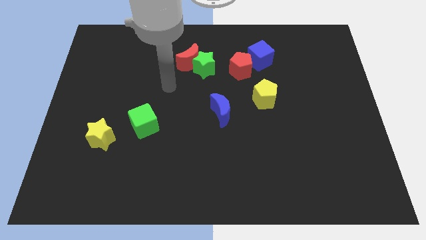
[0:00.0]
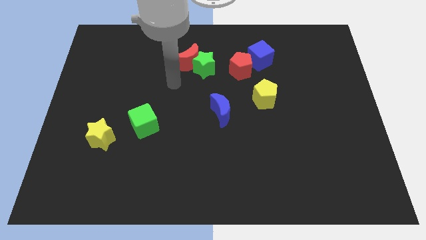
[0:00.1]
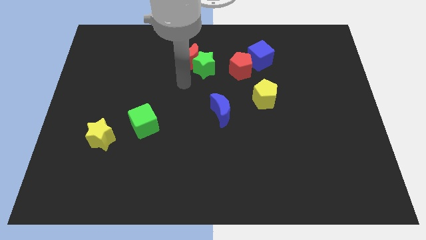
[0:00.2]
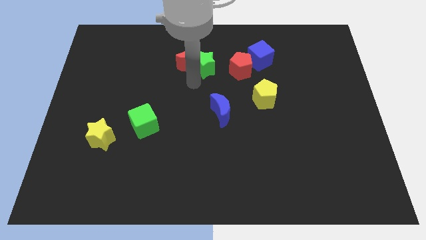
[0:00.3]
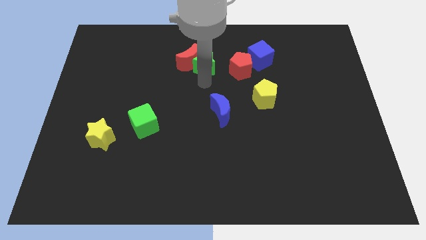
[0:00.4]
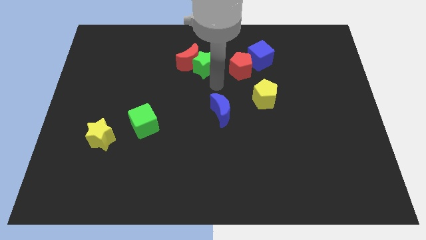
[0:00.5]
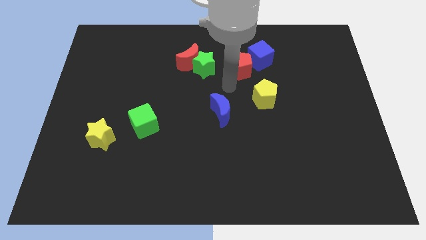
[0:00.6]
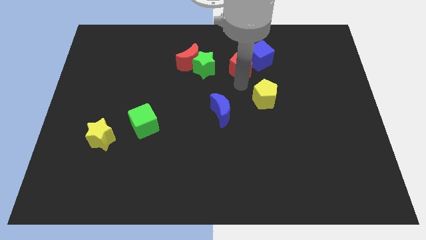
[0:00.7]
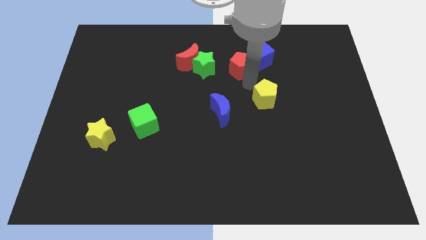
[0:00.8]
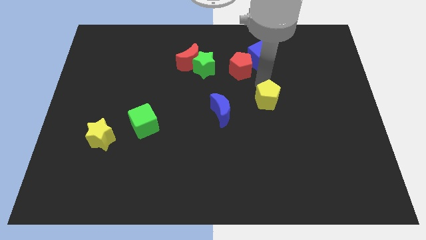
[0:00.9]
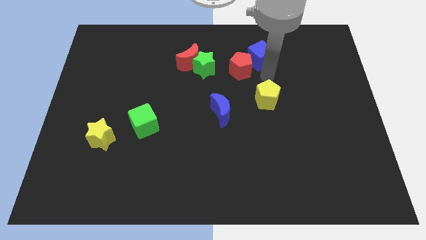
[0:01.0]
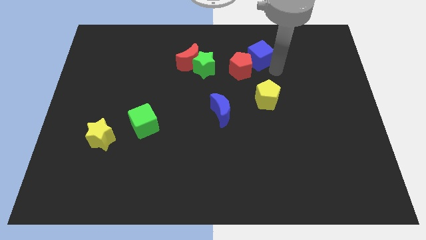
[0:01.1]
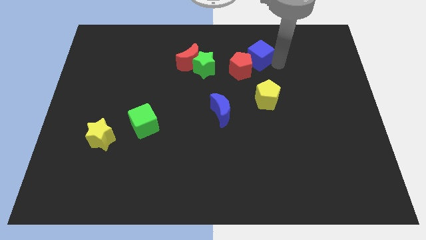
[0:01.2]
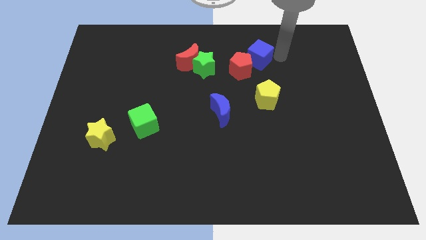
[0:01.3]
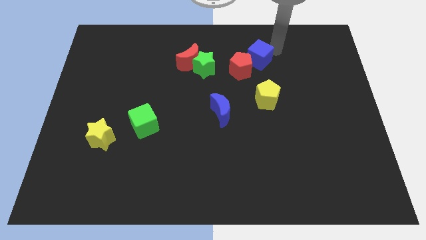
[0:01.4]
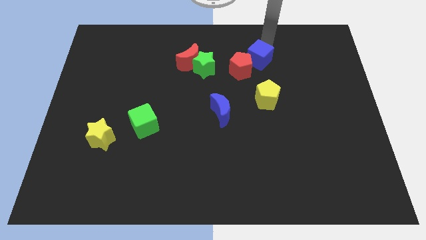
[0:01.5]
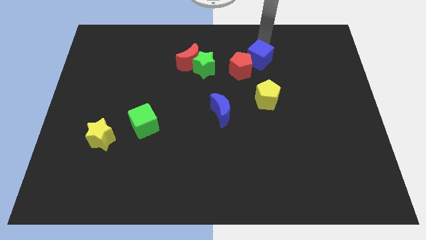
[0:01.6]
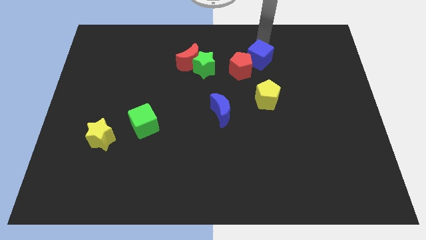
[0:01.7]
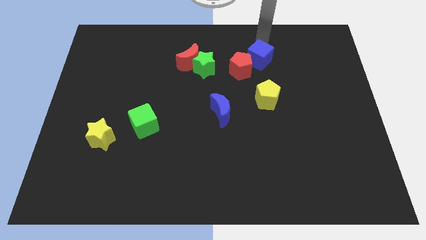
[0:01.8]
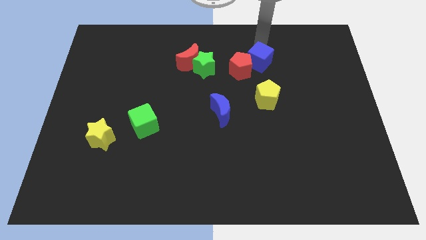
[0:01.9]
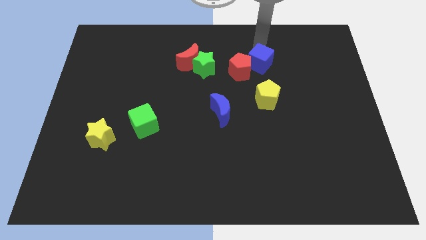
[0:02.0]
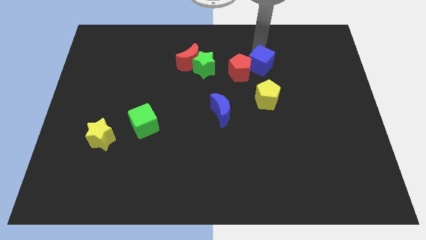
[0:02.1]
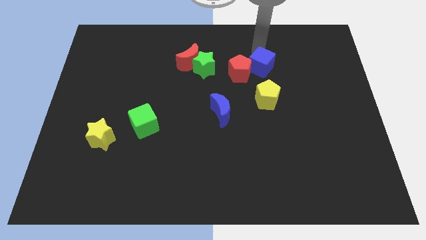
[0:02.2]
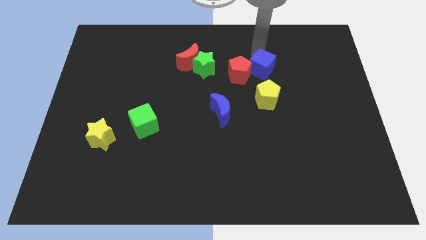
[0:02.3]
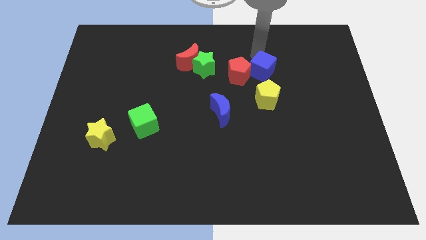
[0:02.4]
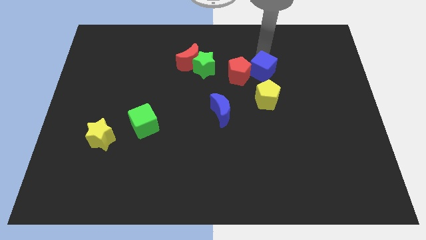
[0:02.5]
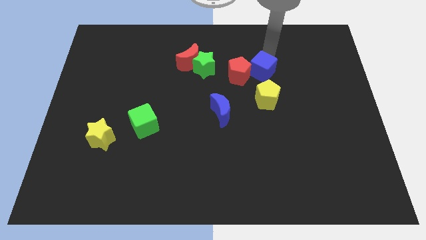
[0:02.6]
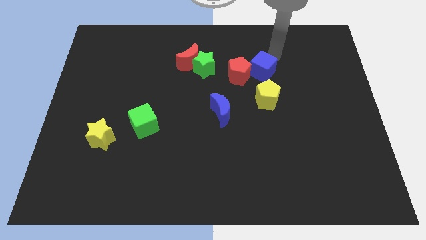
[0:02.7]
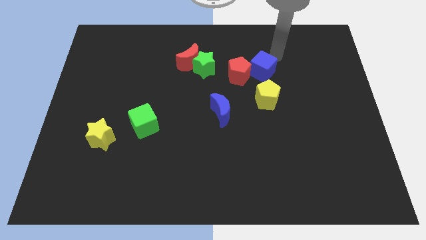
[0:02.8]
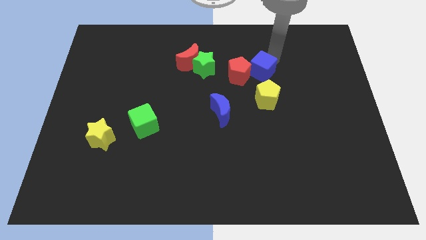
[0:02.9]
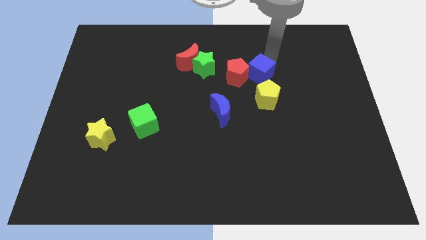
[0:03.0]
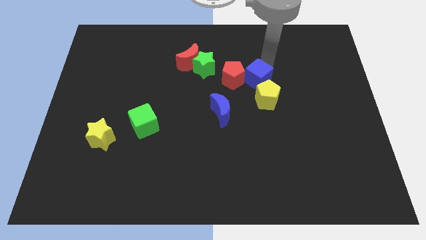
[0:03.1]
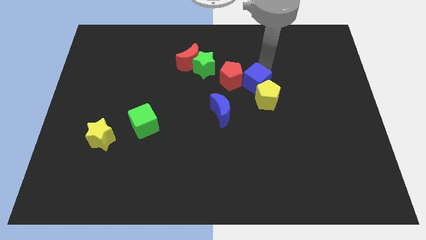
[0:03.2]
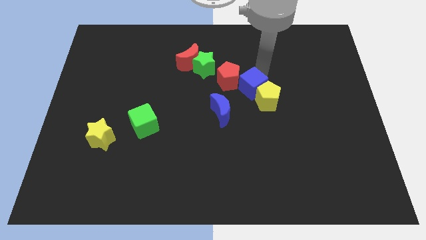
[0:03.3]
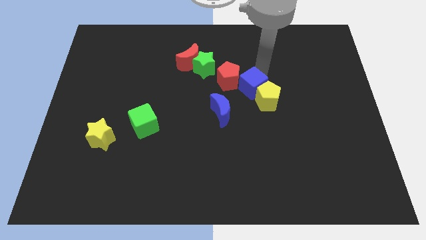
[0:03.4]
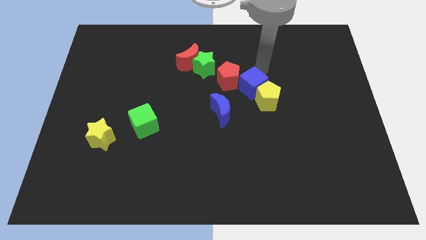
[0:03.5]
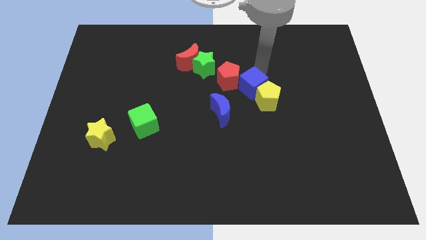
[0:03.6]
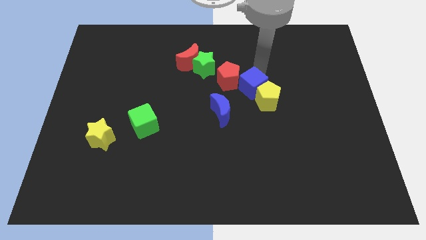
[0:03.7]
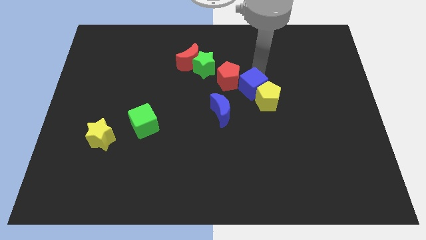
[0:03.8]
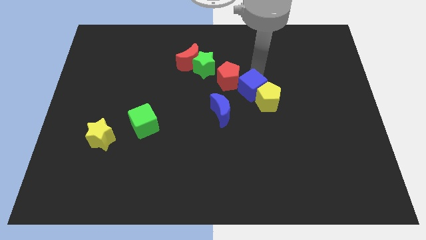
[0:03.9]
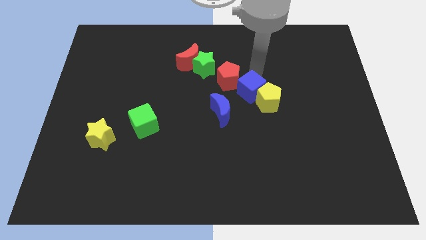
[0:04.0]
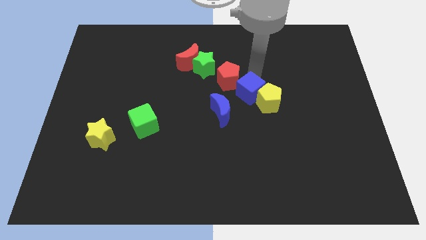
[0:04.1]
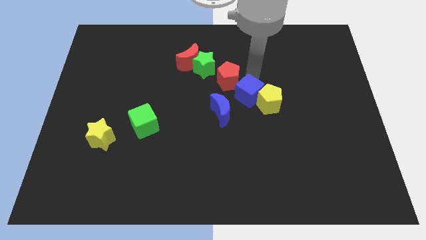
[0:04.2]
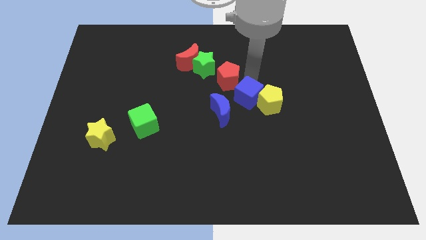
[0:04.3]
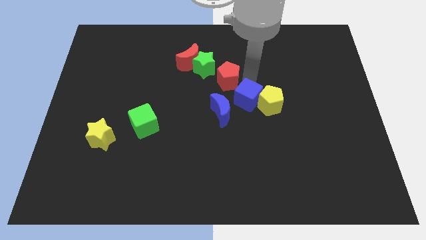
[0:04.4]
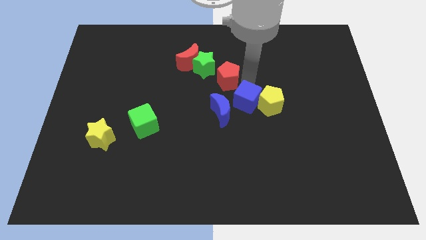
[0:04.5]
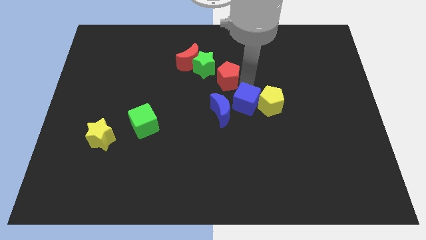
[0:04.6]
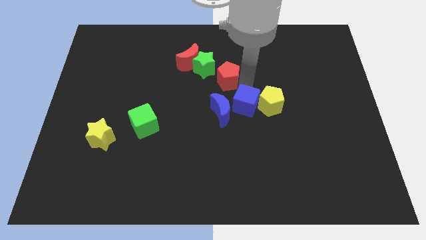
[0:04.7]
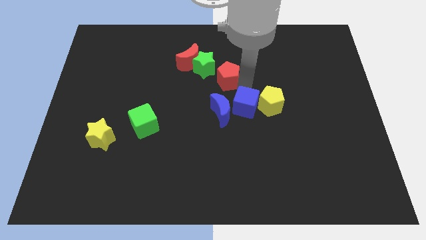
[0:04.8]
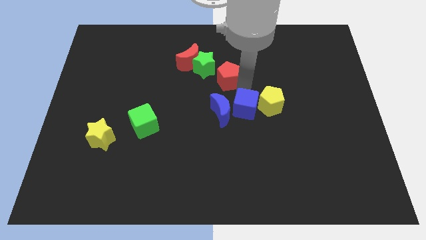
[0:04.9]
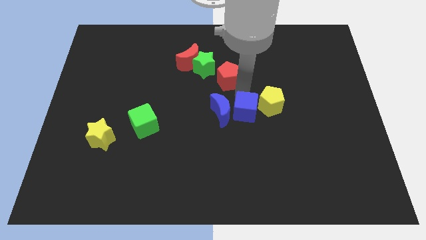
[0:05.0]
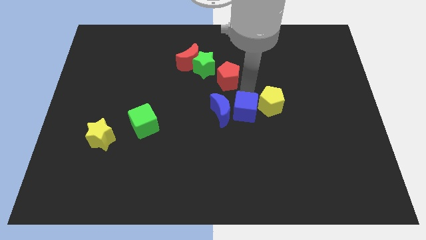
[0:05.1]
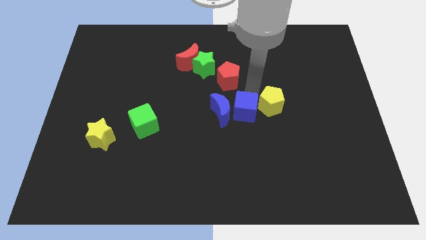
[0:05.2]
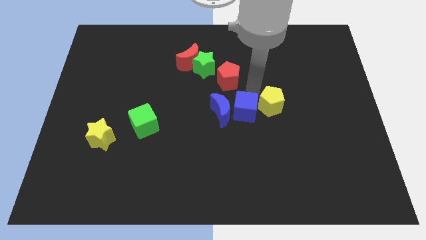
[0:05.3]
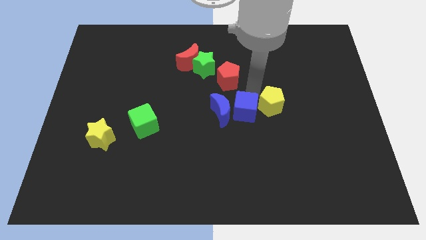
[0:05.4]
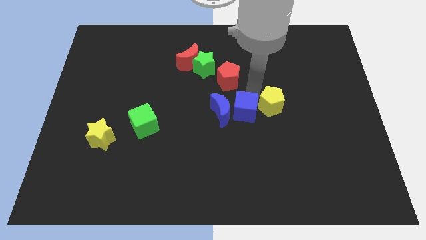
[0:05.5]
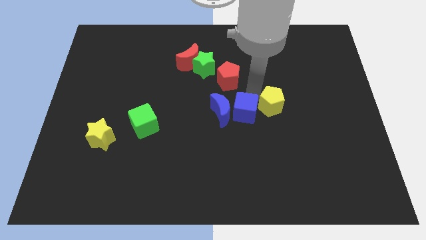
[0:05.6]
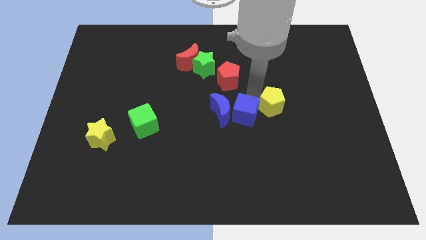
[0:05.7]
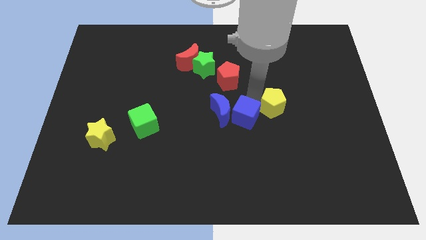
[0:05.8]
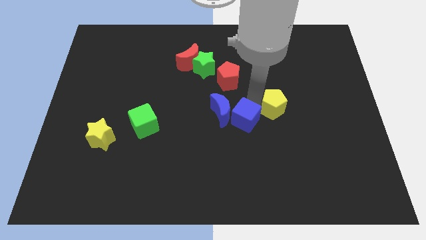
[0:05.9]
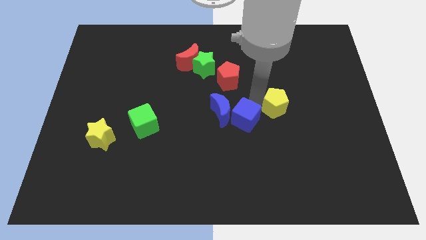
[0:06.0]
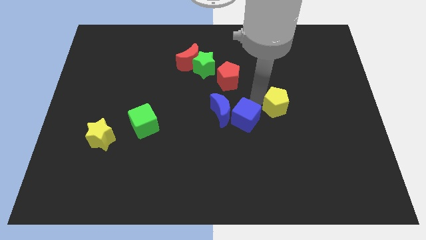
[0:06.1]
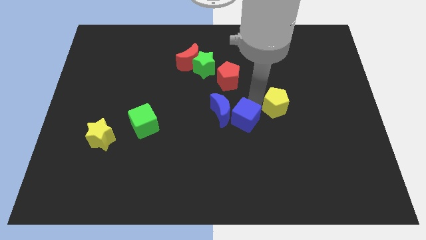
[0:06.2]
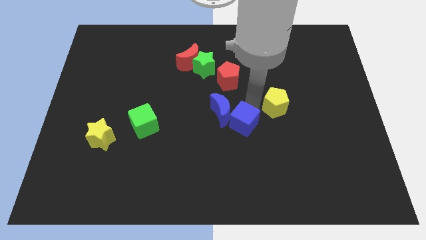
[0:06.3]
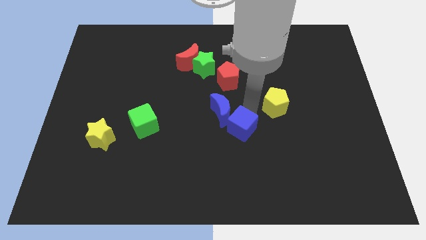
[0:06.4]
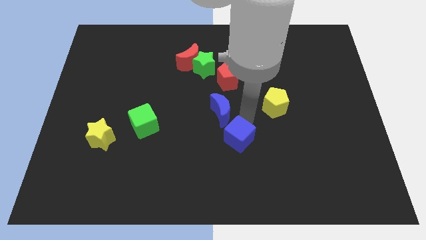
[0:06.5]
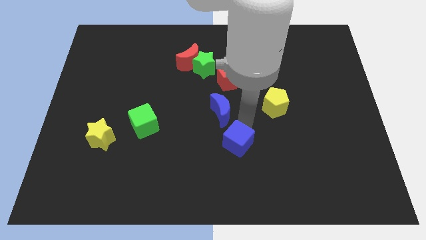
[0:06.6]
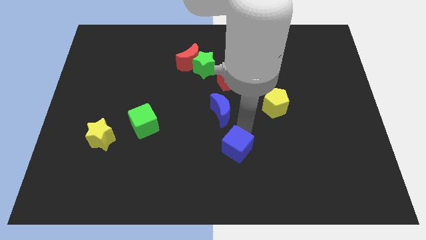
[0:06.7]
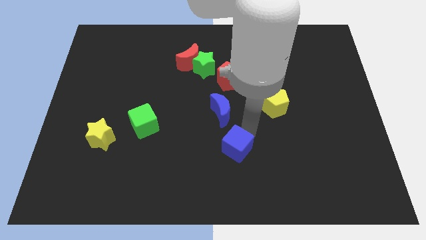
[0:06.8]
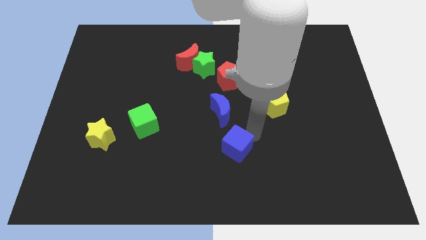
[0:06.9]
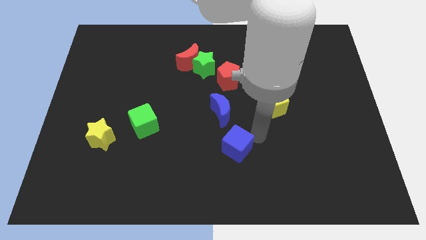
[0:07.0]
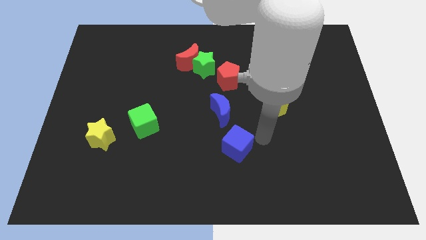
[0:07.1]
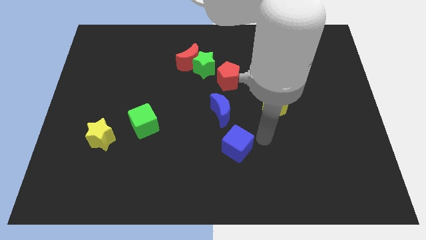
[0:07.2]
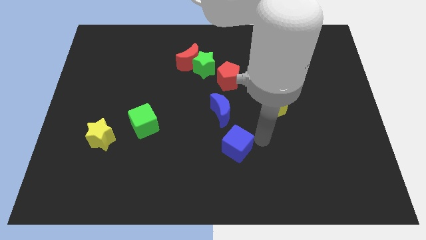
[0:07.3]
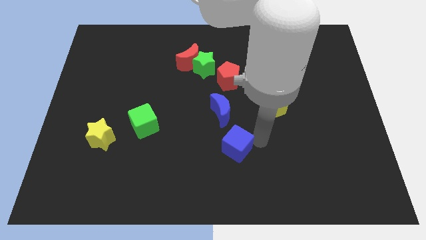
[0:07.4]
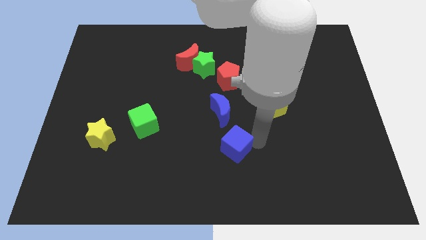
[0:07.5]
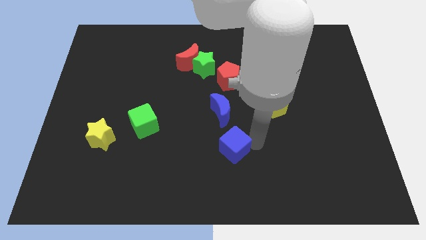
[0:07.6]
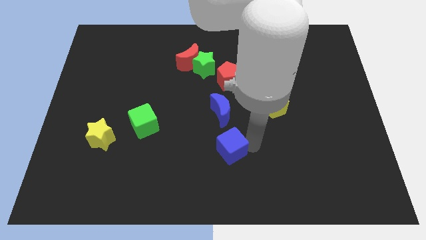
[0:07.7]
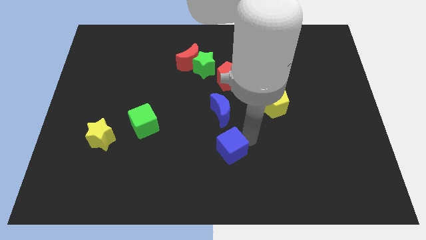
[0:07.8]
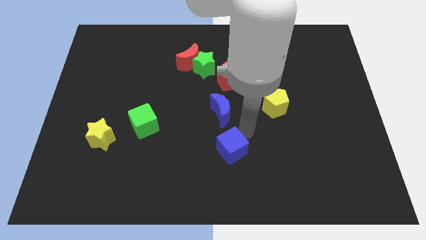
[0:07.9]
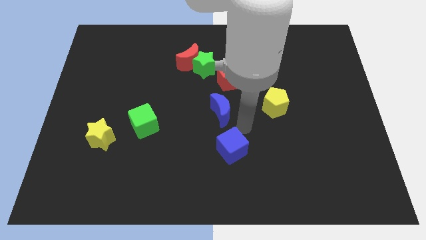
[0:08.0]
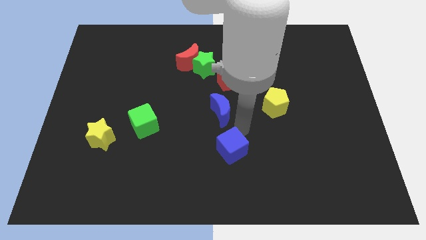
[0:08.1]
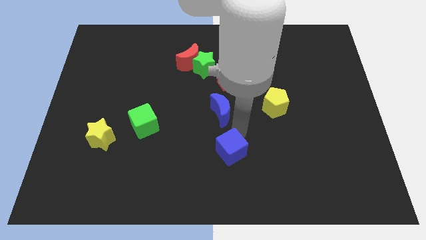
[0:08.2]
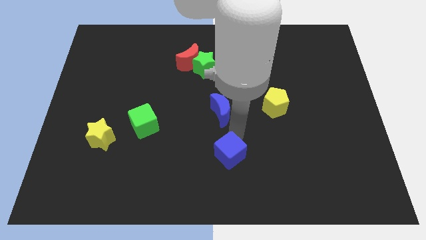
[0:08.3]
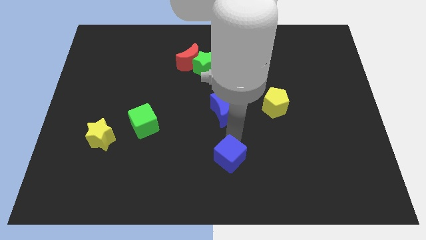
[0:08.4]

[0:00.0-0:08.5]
move the blue cube to the bottom
